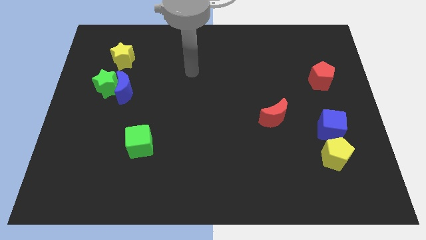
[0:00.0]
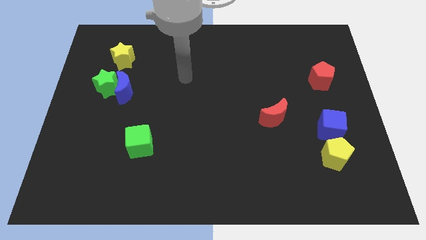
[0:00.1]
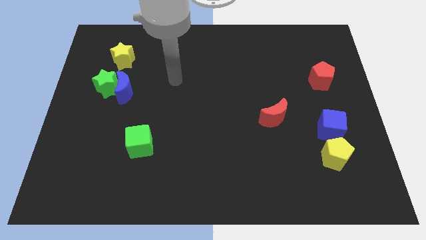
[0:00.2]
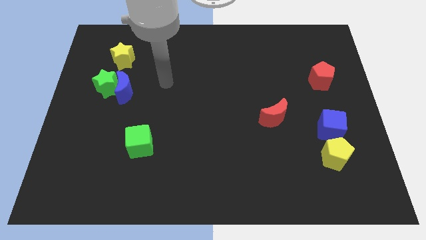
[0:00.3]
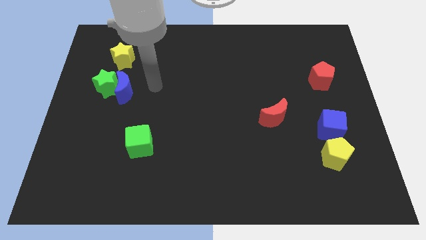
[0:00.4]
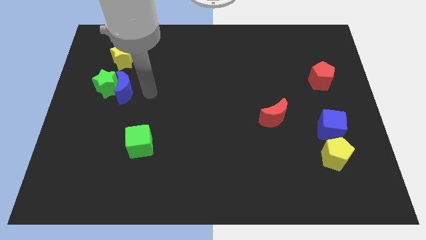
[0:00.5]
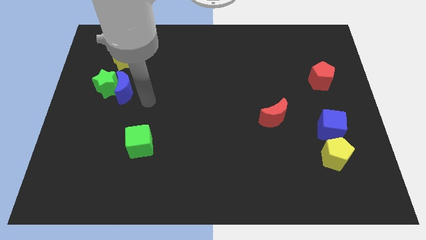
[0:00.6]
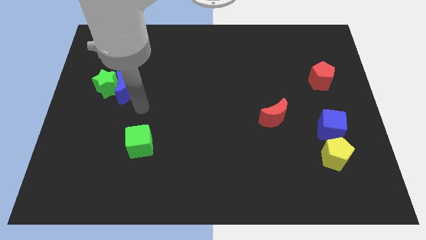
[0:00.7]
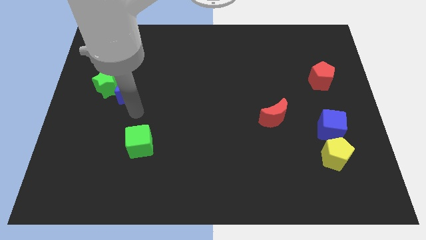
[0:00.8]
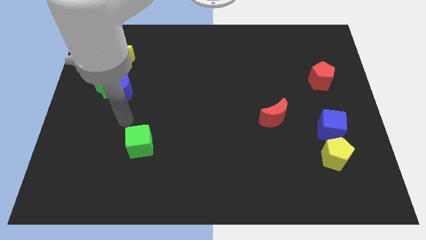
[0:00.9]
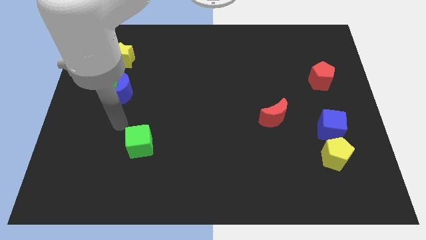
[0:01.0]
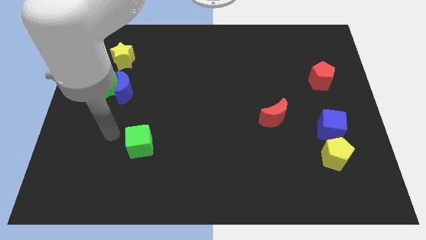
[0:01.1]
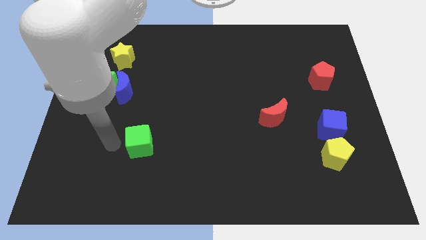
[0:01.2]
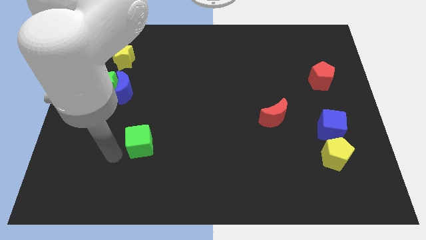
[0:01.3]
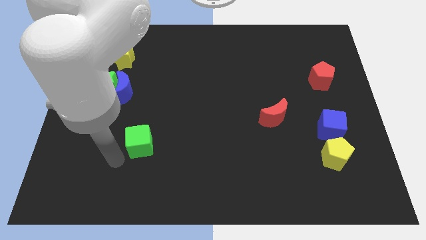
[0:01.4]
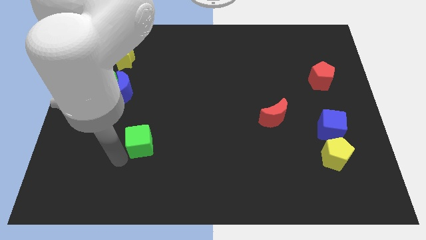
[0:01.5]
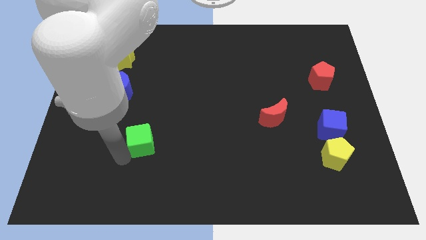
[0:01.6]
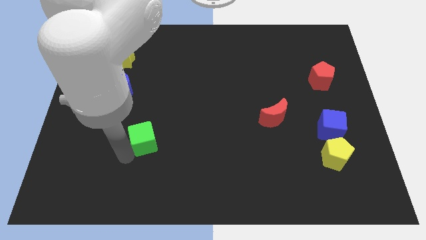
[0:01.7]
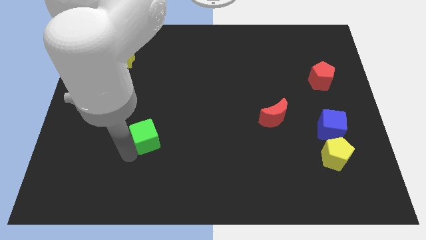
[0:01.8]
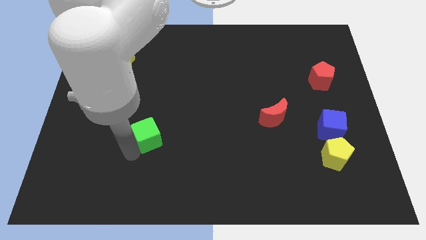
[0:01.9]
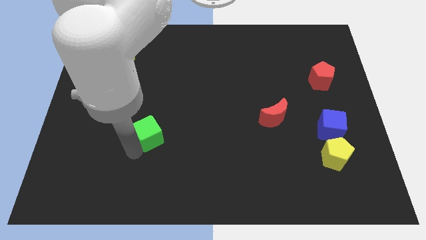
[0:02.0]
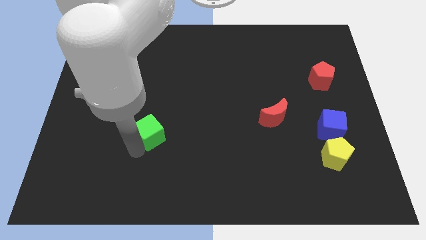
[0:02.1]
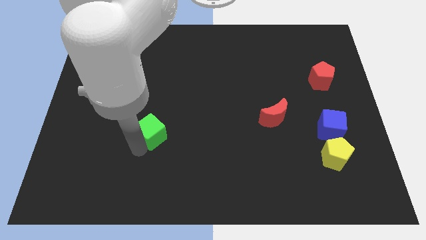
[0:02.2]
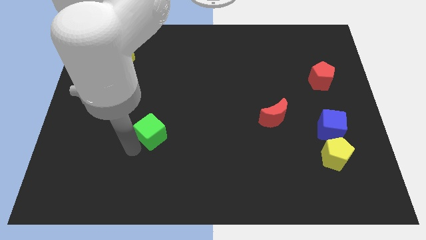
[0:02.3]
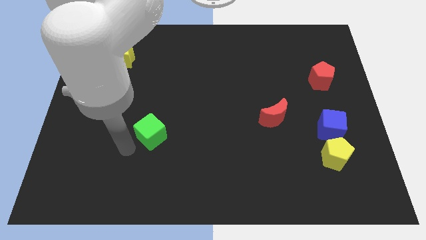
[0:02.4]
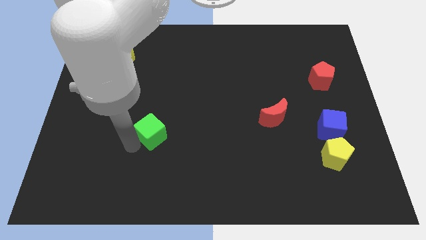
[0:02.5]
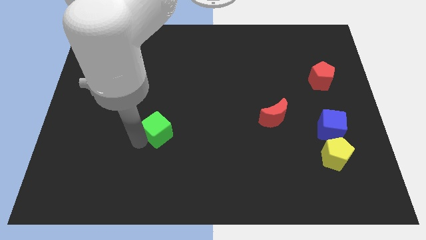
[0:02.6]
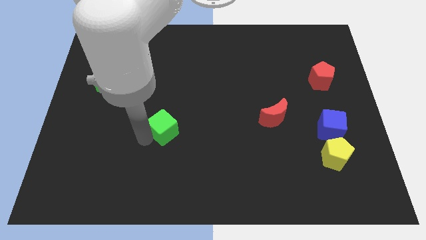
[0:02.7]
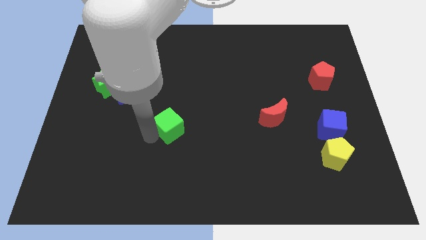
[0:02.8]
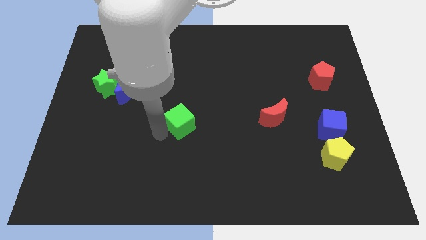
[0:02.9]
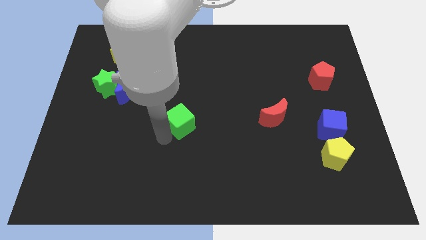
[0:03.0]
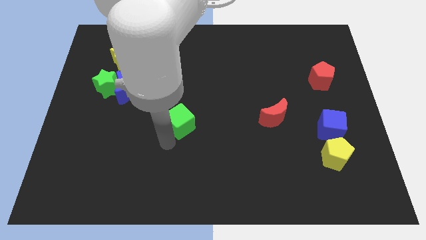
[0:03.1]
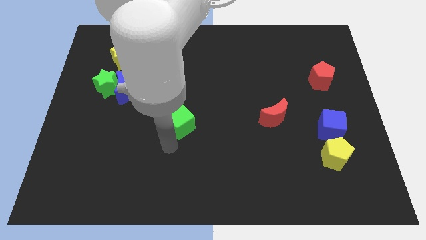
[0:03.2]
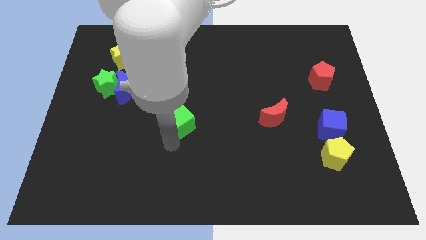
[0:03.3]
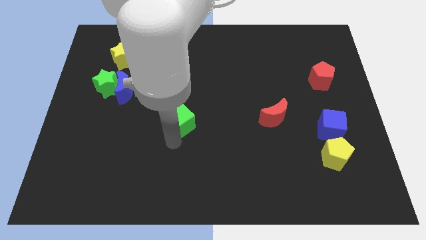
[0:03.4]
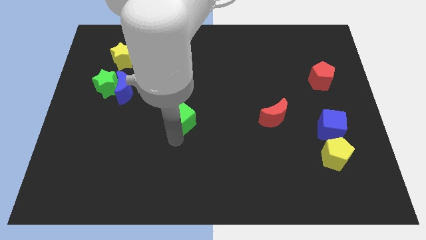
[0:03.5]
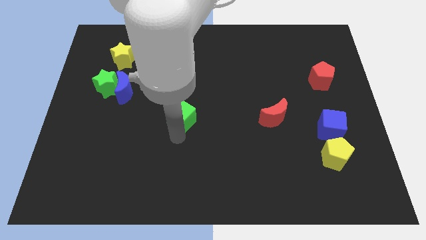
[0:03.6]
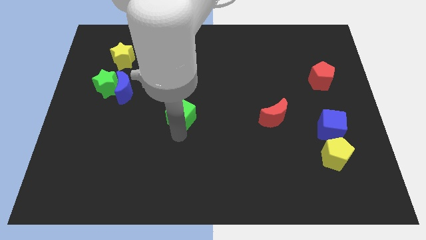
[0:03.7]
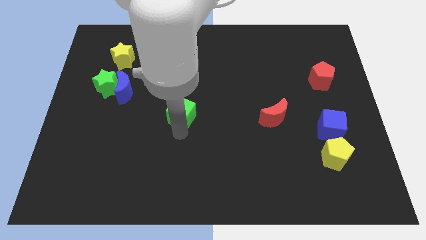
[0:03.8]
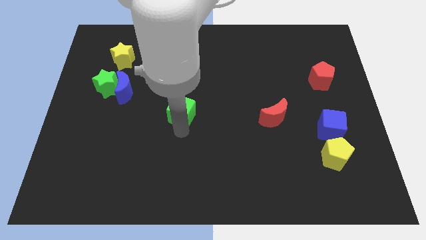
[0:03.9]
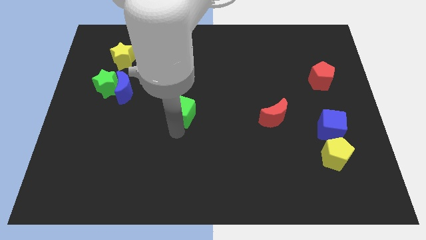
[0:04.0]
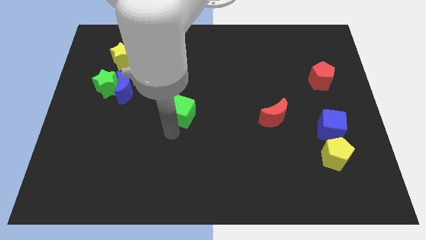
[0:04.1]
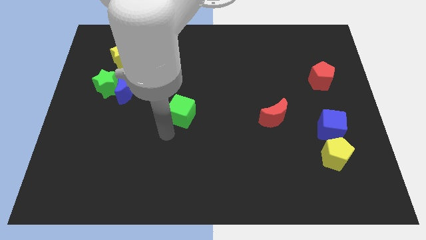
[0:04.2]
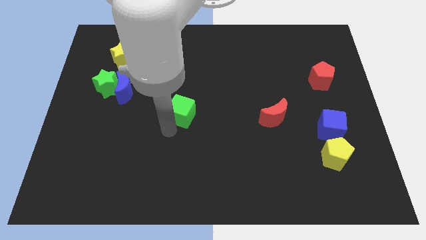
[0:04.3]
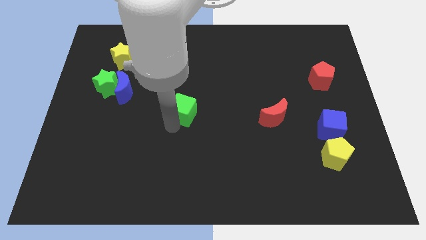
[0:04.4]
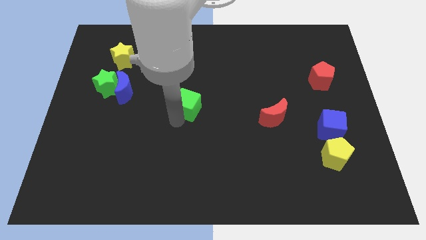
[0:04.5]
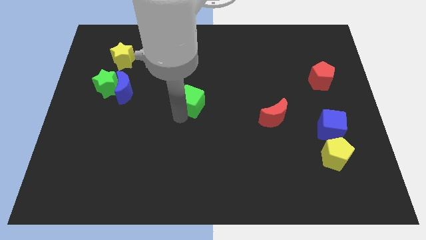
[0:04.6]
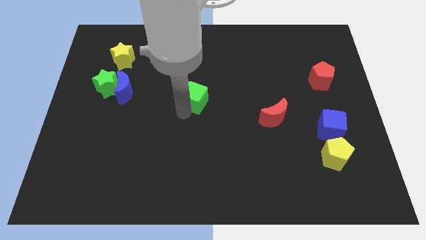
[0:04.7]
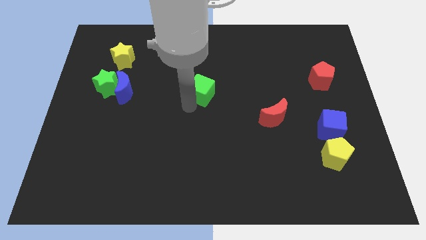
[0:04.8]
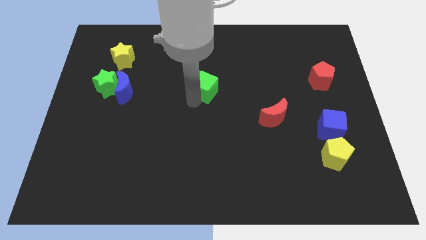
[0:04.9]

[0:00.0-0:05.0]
slide the green cube diagonally upwards and right

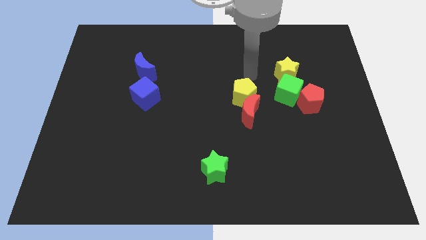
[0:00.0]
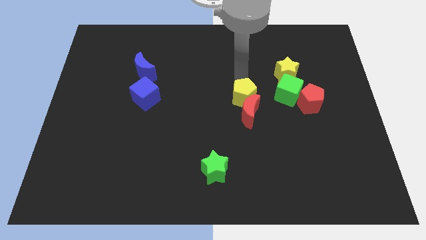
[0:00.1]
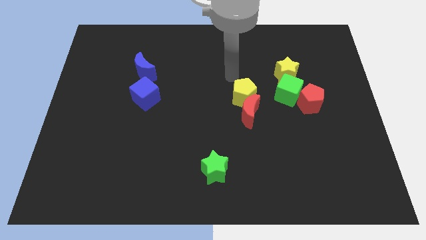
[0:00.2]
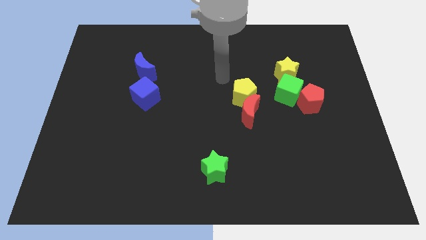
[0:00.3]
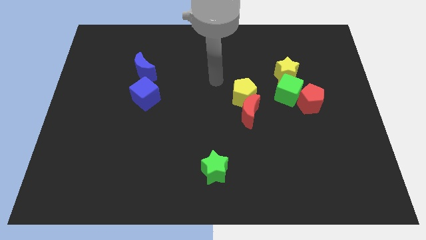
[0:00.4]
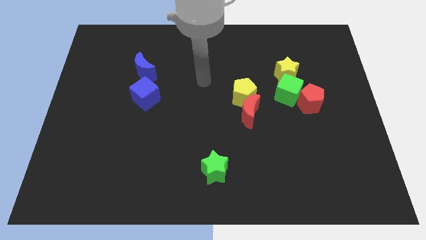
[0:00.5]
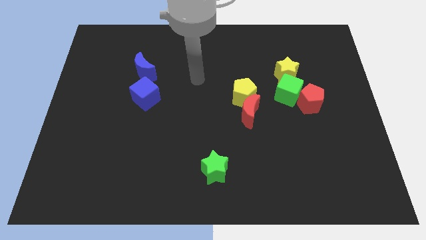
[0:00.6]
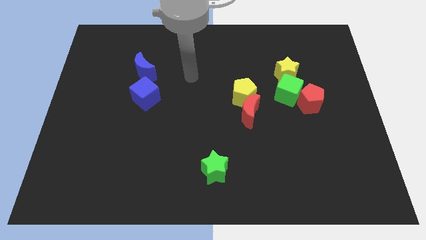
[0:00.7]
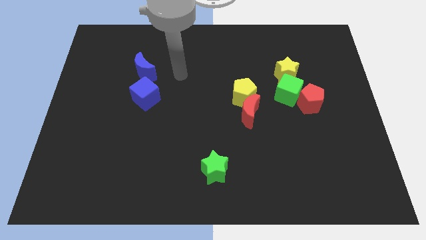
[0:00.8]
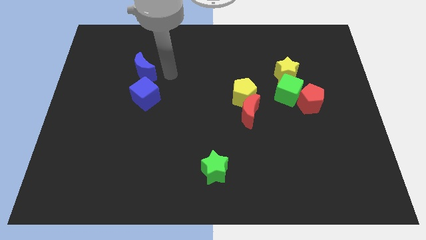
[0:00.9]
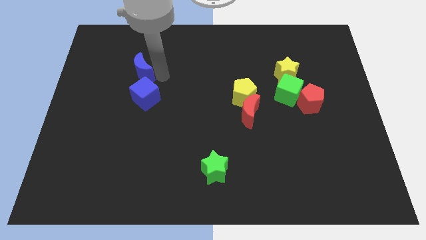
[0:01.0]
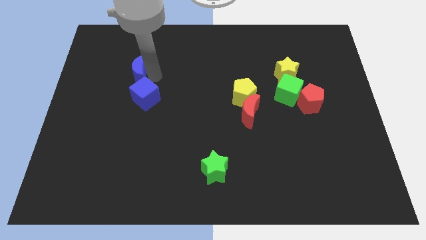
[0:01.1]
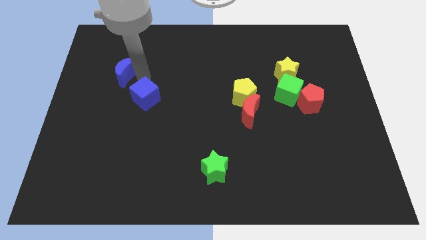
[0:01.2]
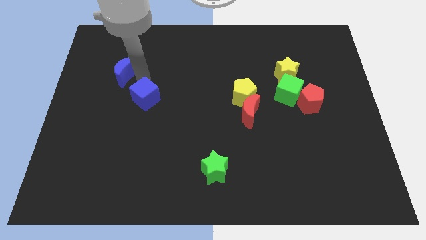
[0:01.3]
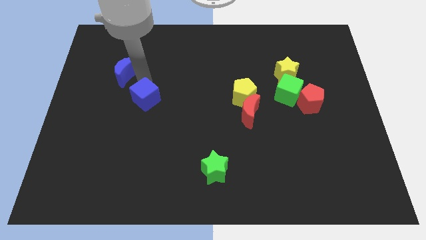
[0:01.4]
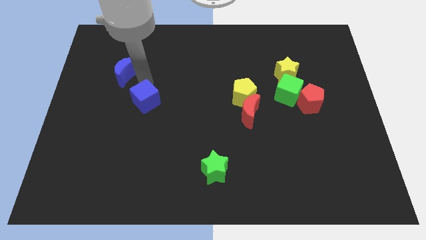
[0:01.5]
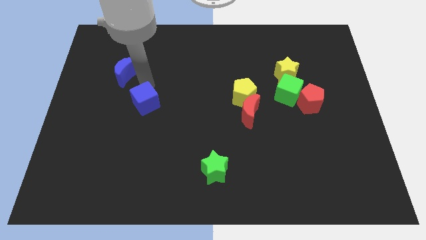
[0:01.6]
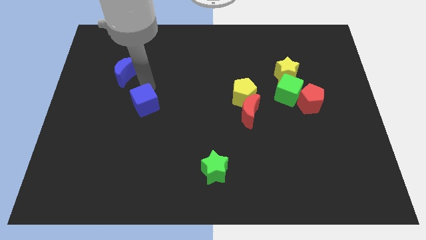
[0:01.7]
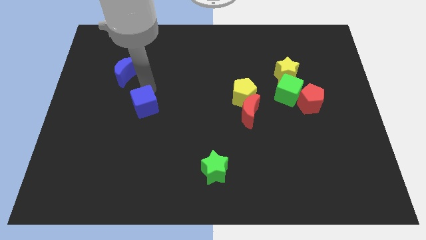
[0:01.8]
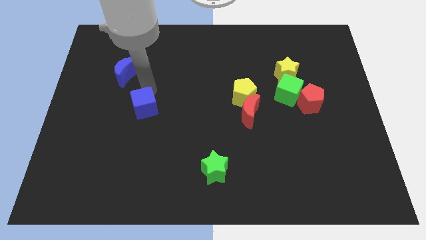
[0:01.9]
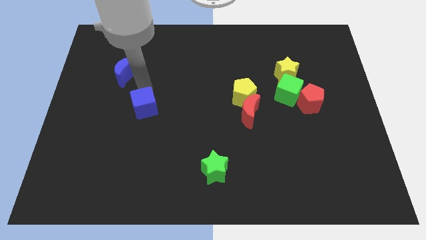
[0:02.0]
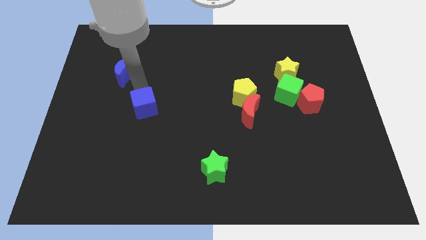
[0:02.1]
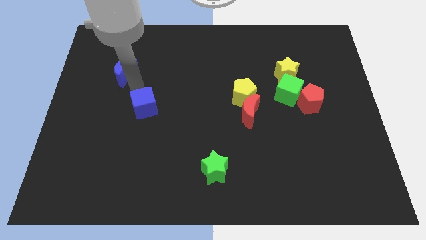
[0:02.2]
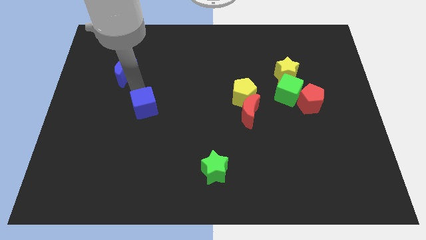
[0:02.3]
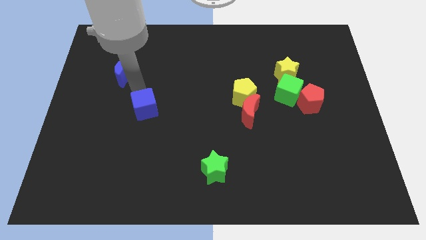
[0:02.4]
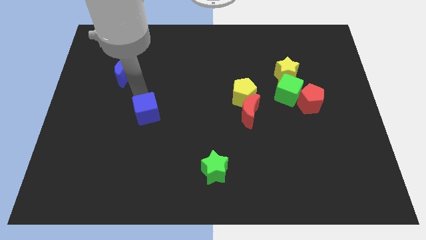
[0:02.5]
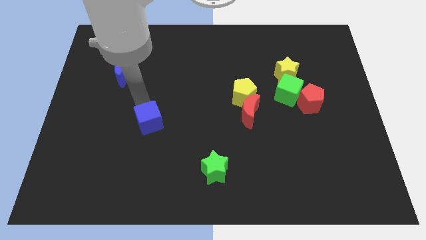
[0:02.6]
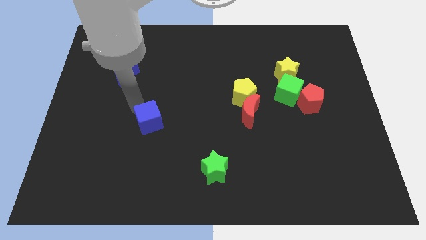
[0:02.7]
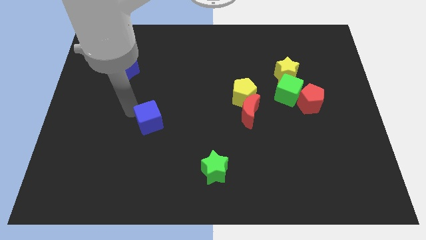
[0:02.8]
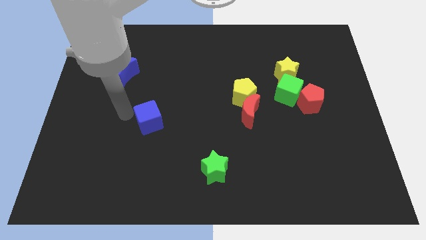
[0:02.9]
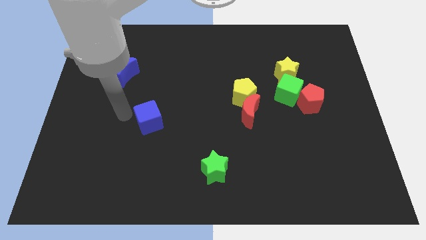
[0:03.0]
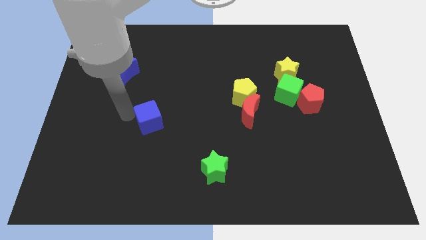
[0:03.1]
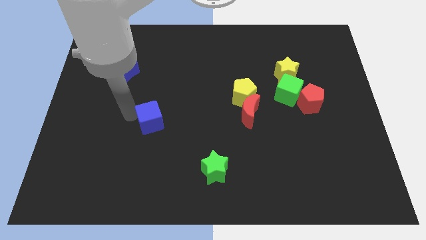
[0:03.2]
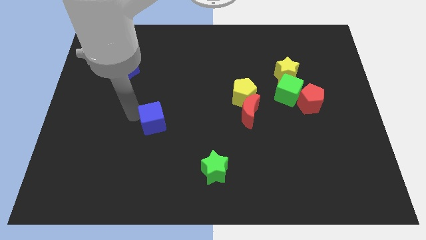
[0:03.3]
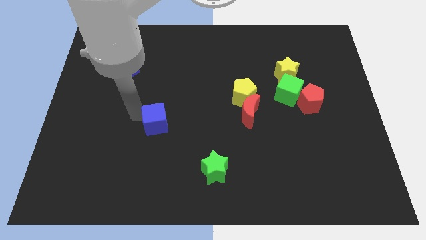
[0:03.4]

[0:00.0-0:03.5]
slightly slide the blue cube down and right
